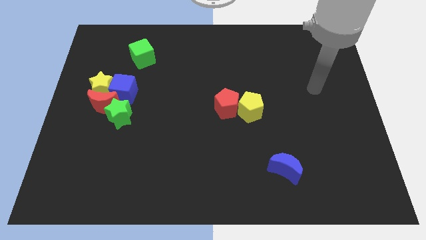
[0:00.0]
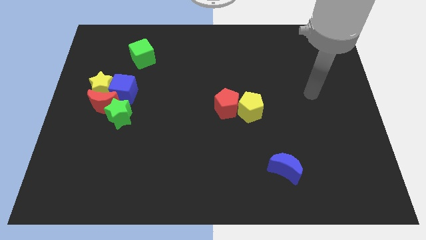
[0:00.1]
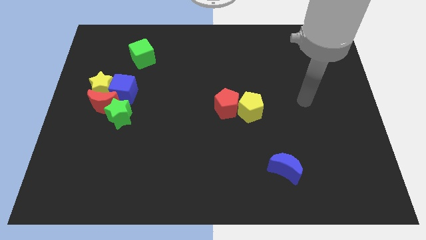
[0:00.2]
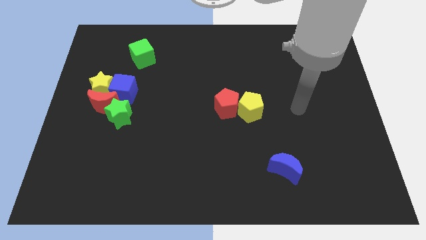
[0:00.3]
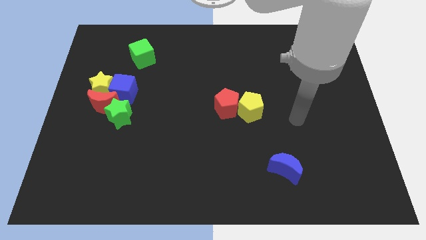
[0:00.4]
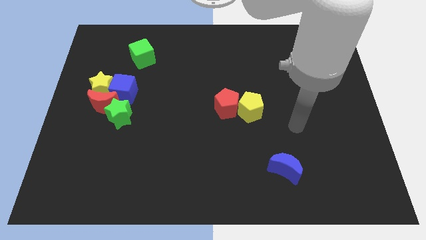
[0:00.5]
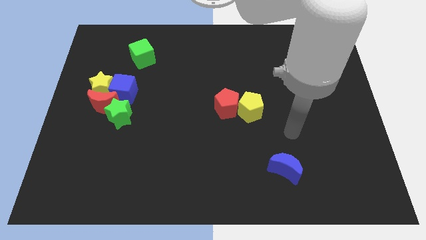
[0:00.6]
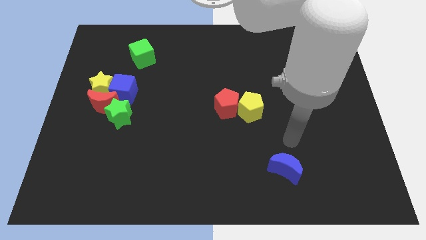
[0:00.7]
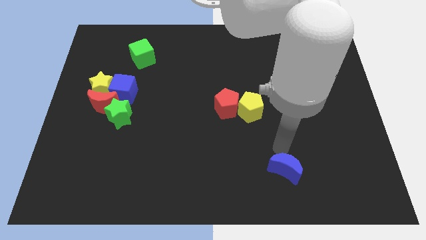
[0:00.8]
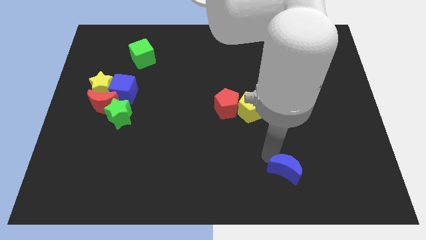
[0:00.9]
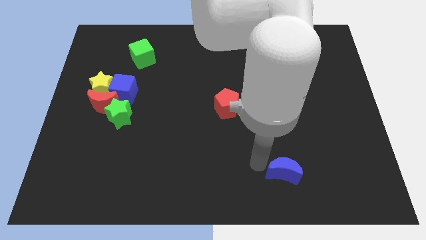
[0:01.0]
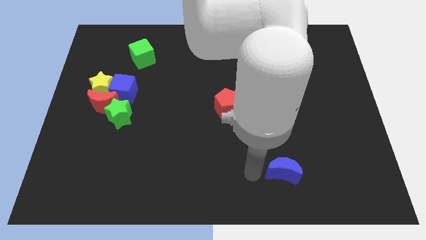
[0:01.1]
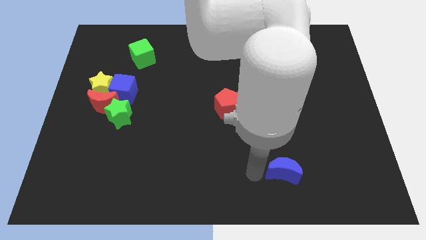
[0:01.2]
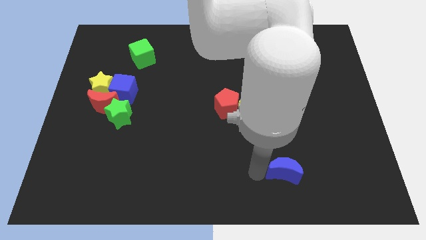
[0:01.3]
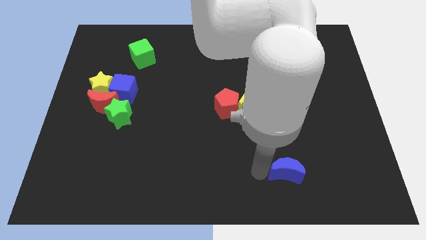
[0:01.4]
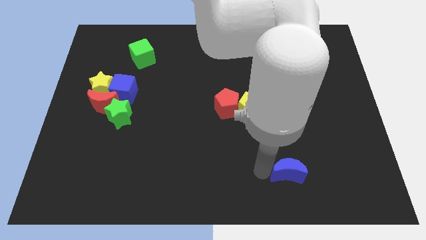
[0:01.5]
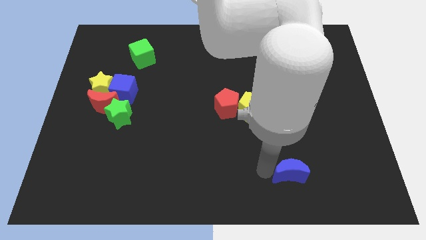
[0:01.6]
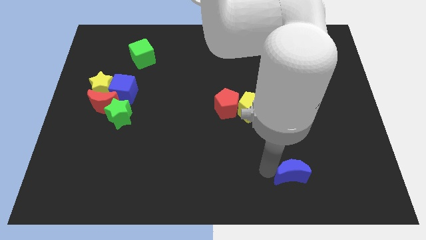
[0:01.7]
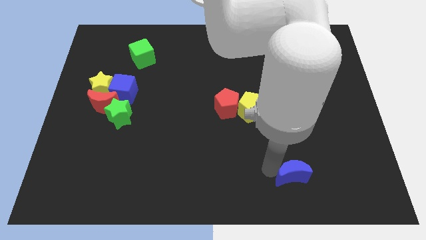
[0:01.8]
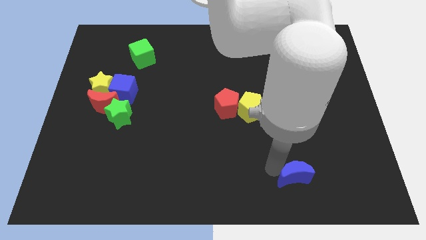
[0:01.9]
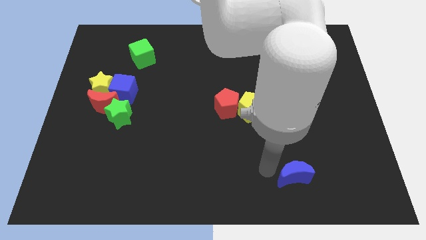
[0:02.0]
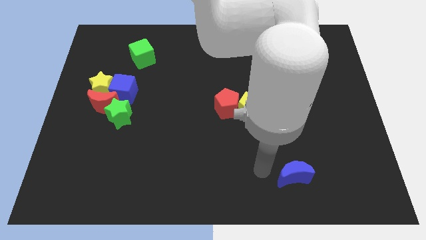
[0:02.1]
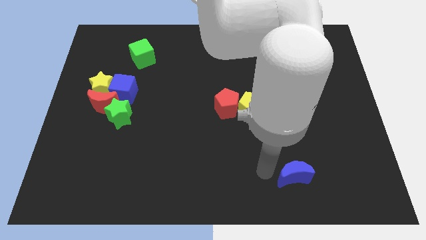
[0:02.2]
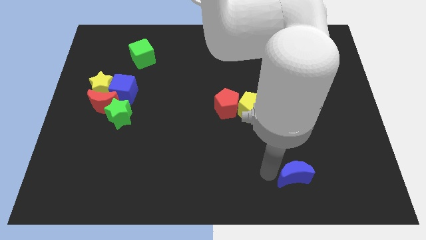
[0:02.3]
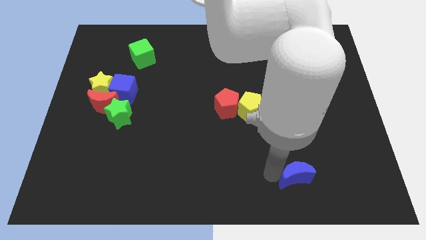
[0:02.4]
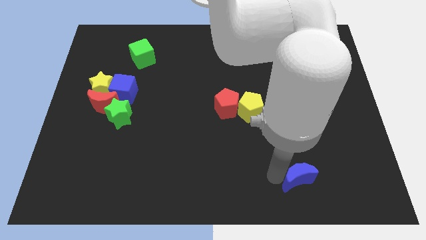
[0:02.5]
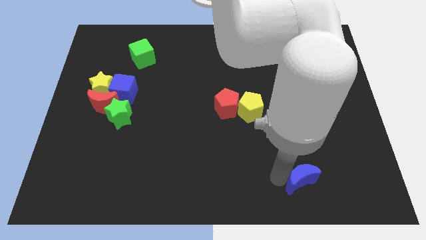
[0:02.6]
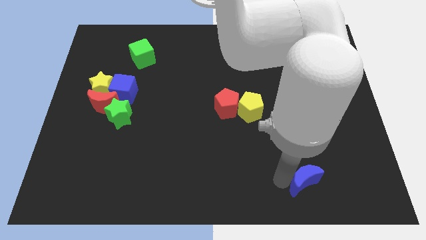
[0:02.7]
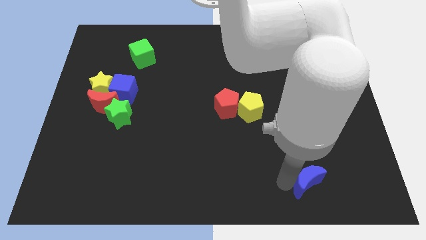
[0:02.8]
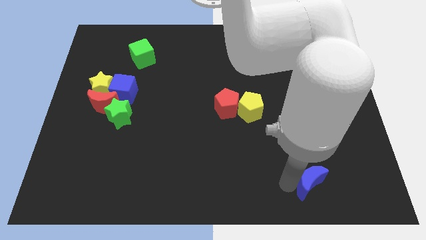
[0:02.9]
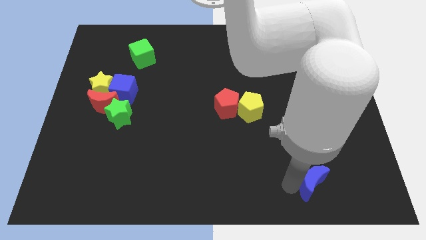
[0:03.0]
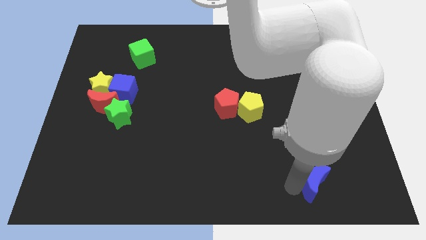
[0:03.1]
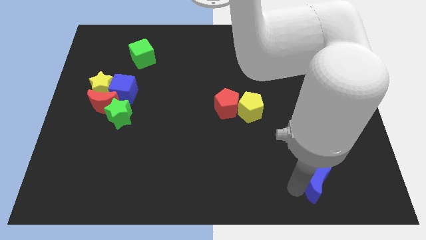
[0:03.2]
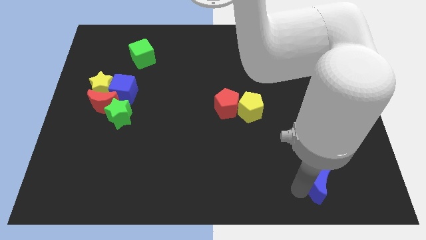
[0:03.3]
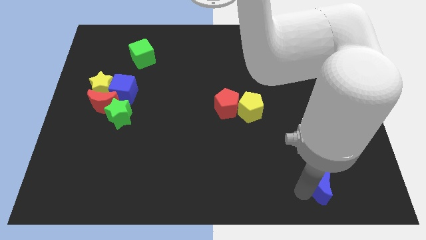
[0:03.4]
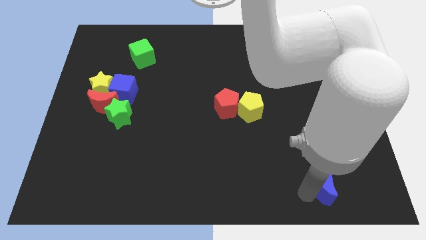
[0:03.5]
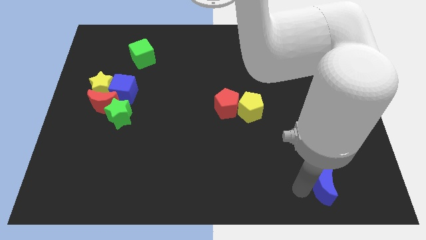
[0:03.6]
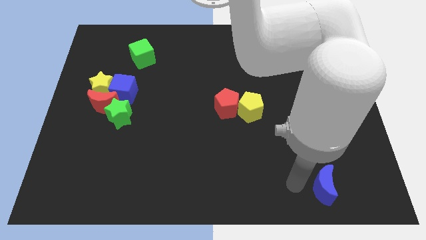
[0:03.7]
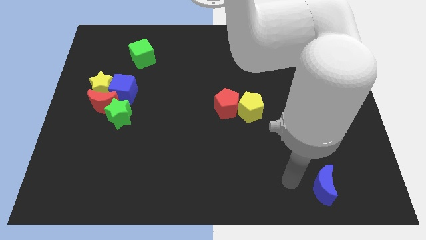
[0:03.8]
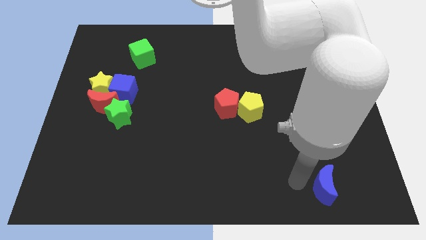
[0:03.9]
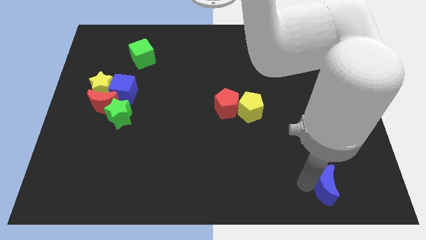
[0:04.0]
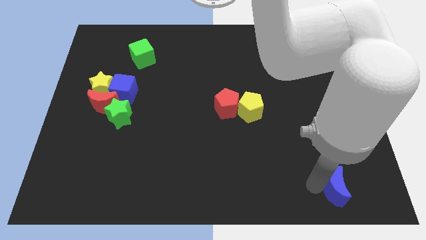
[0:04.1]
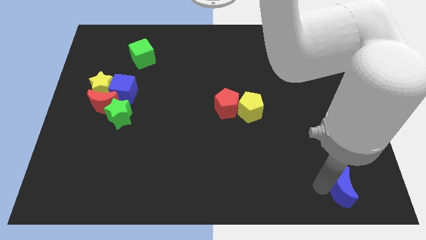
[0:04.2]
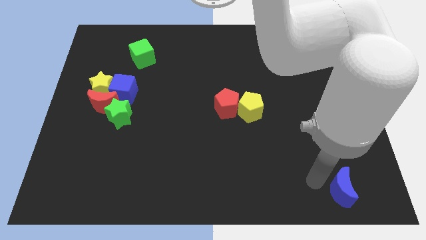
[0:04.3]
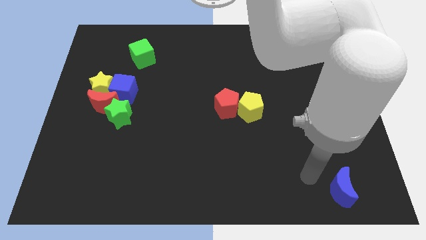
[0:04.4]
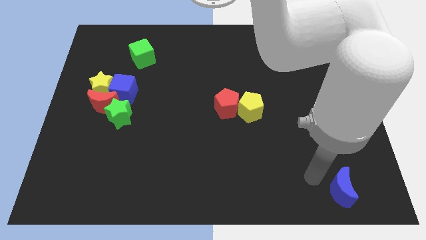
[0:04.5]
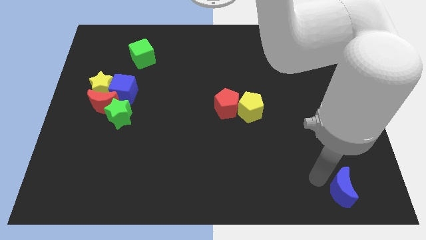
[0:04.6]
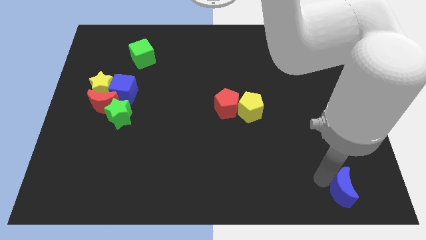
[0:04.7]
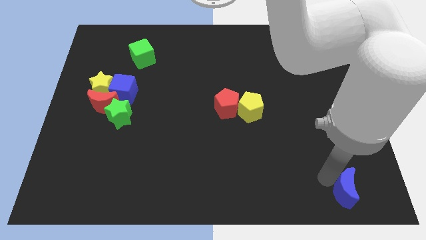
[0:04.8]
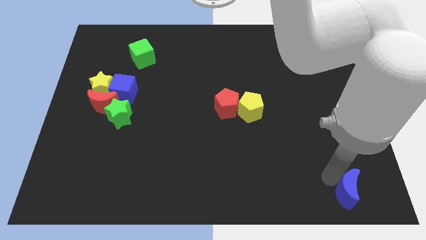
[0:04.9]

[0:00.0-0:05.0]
push the blue moon to the bottom right of the board

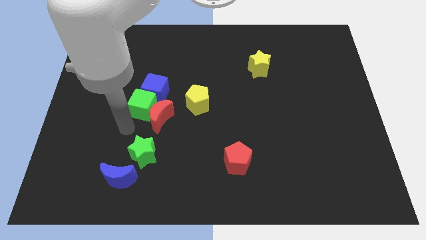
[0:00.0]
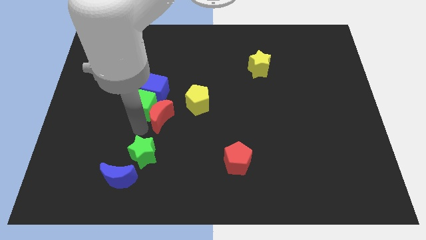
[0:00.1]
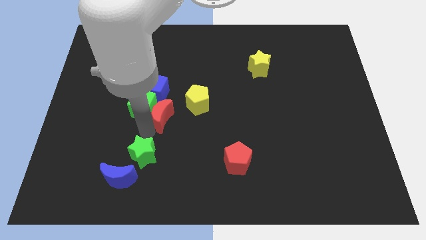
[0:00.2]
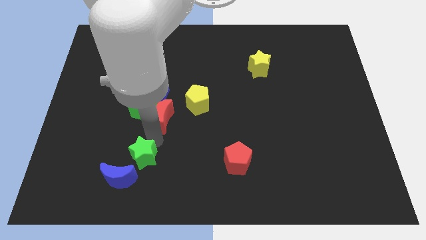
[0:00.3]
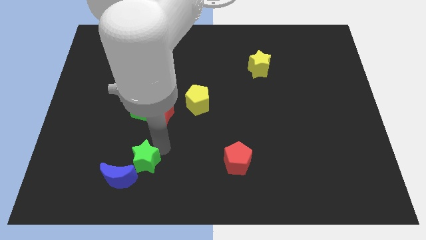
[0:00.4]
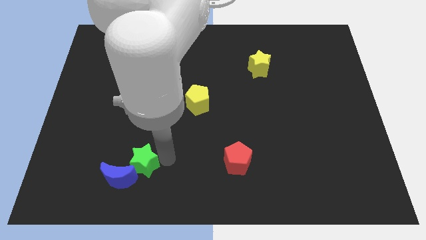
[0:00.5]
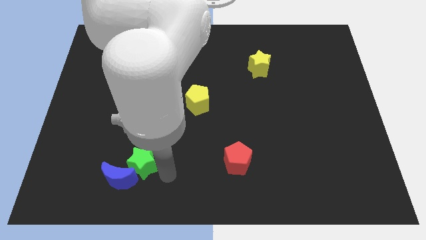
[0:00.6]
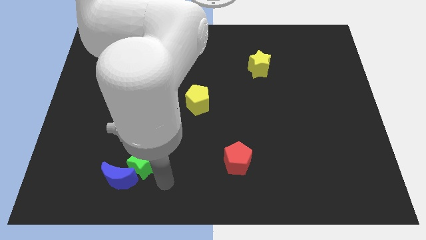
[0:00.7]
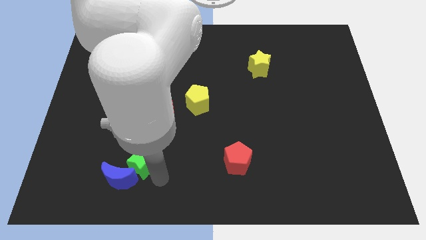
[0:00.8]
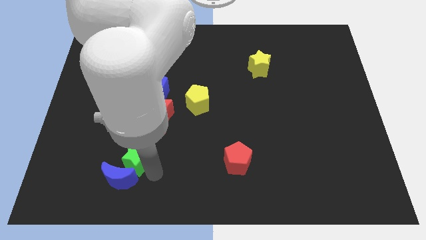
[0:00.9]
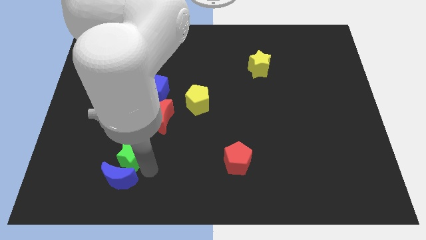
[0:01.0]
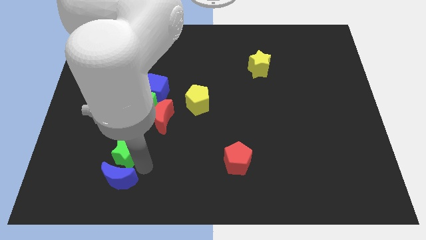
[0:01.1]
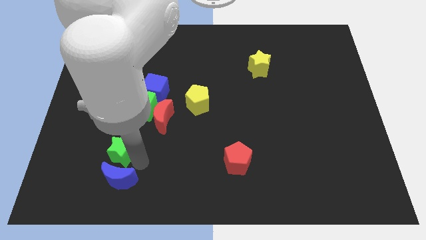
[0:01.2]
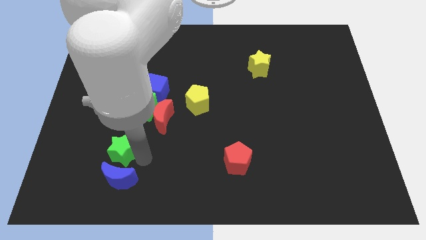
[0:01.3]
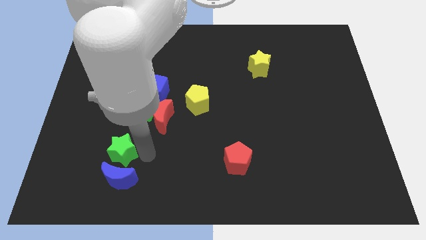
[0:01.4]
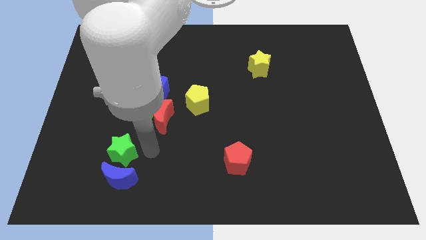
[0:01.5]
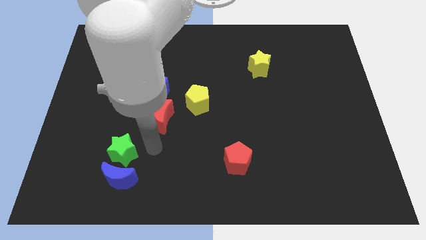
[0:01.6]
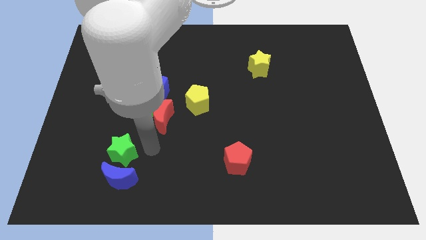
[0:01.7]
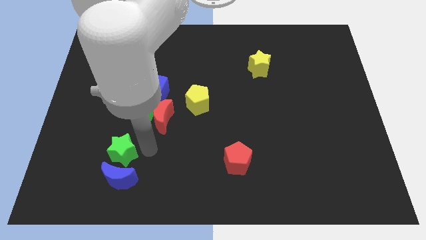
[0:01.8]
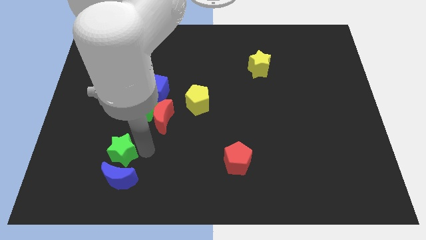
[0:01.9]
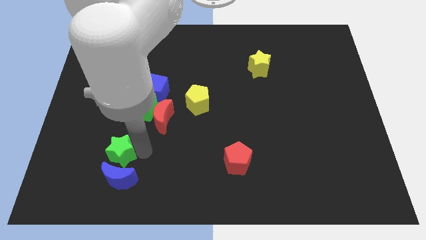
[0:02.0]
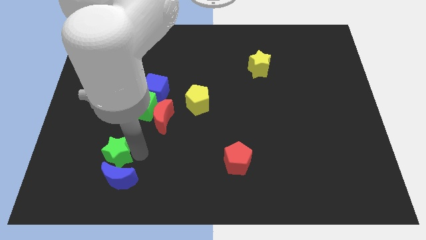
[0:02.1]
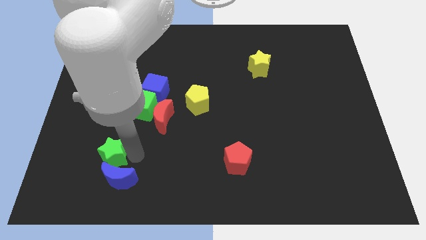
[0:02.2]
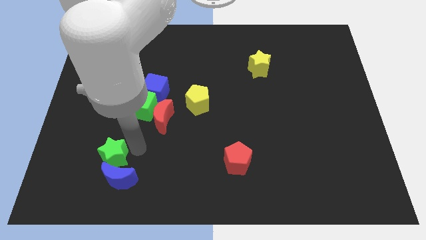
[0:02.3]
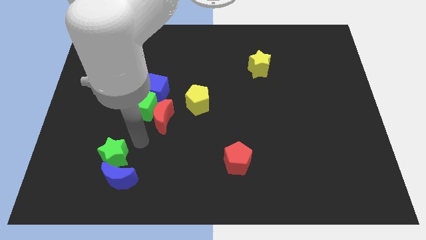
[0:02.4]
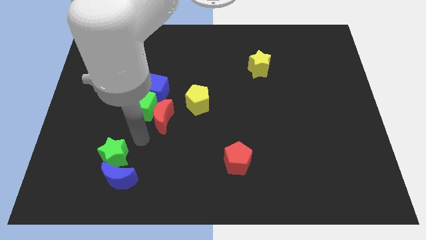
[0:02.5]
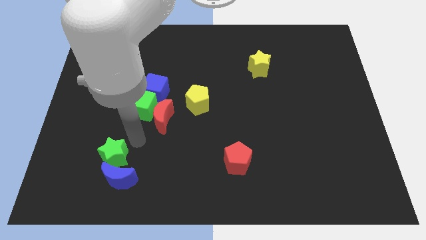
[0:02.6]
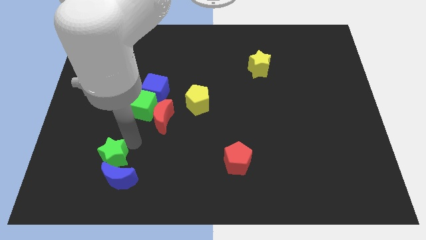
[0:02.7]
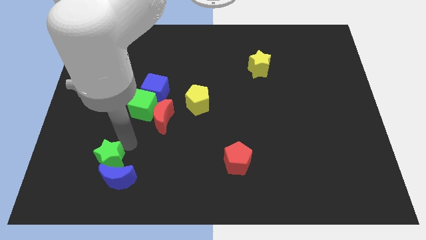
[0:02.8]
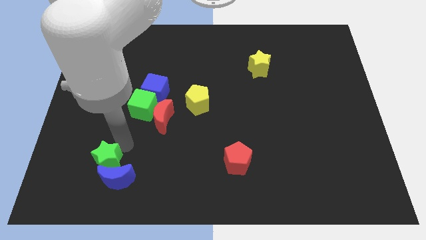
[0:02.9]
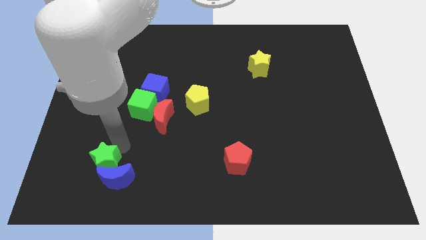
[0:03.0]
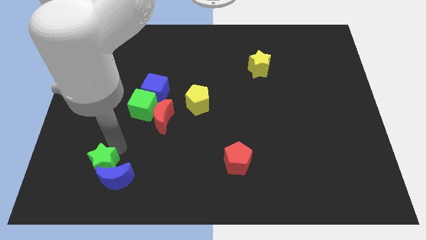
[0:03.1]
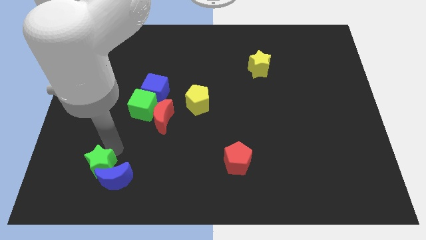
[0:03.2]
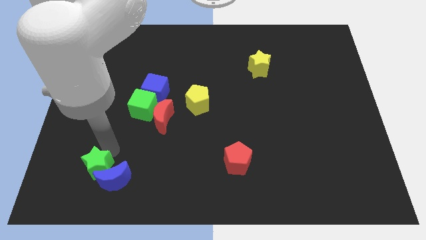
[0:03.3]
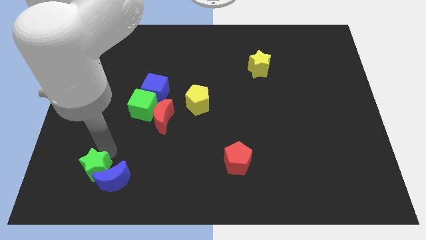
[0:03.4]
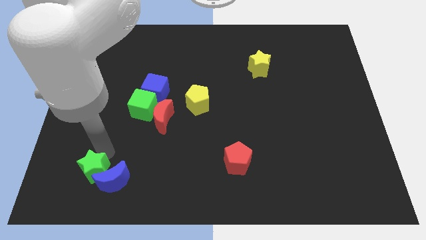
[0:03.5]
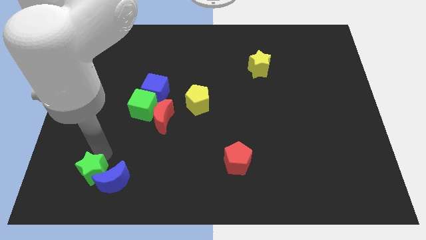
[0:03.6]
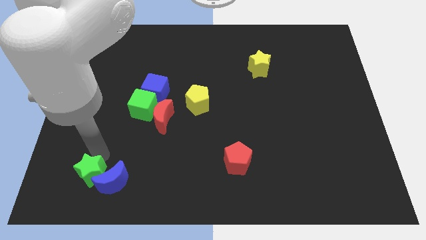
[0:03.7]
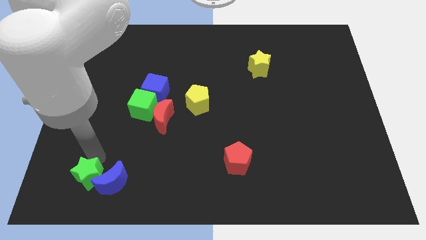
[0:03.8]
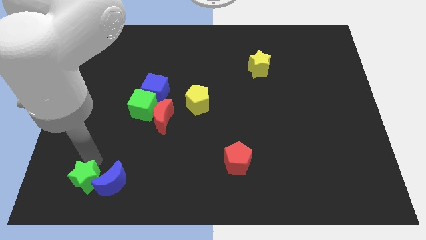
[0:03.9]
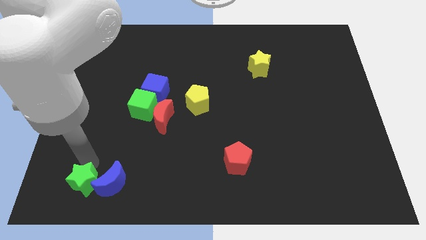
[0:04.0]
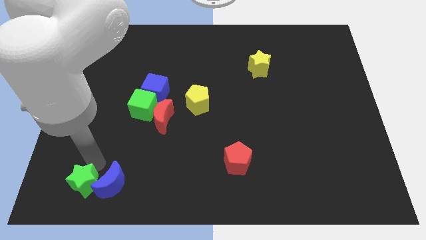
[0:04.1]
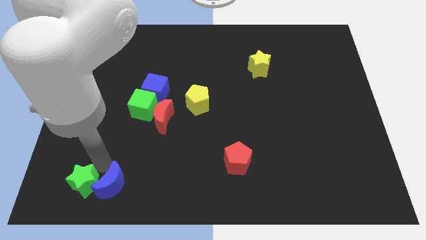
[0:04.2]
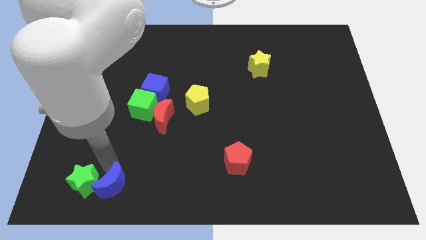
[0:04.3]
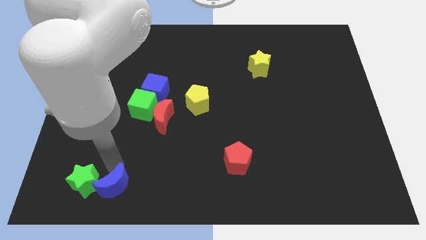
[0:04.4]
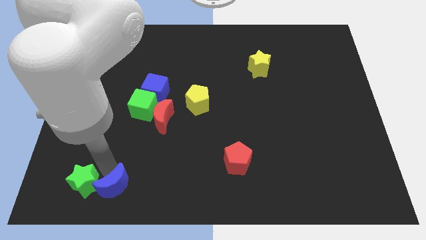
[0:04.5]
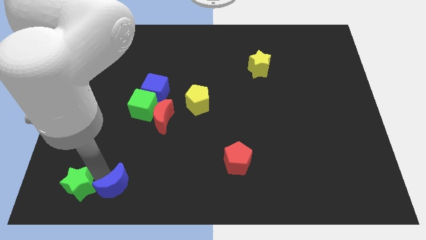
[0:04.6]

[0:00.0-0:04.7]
slide the green star to the bottom left corner
